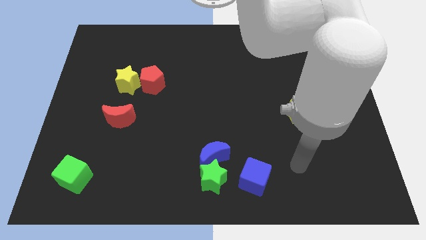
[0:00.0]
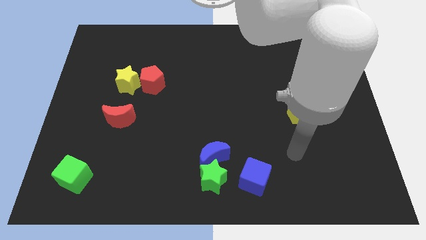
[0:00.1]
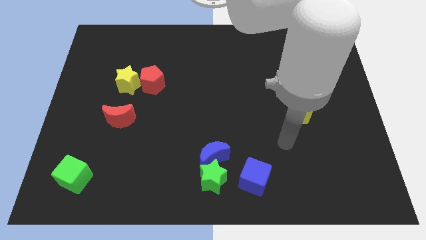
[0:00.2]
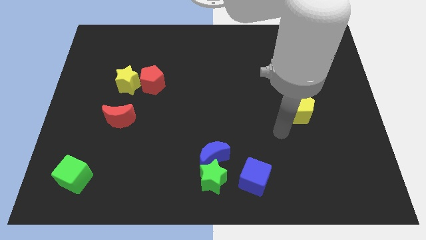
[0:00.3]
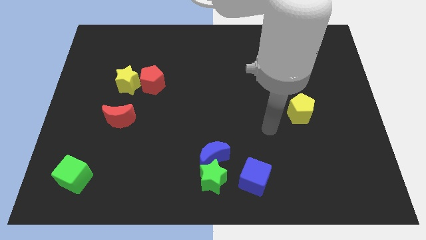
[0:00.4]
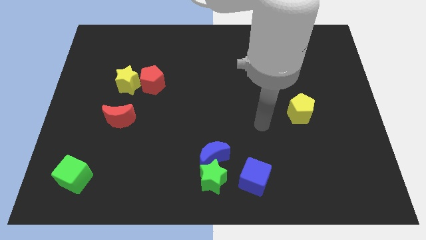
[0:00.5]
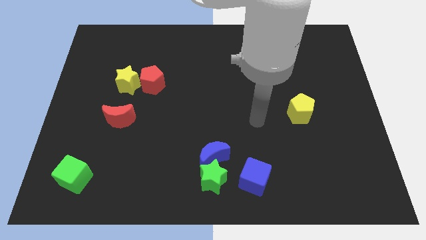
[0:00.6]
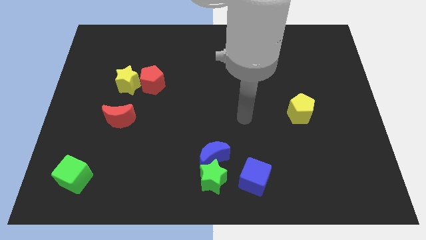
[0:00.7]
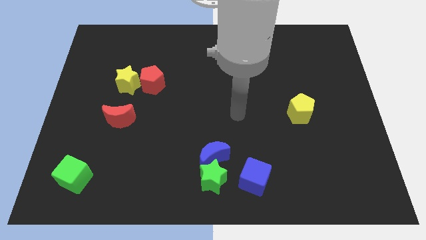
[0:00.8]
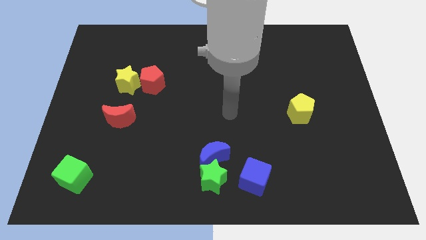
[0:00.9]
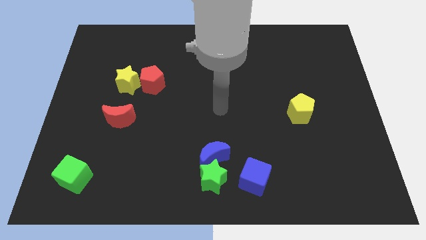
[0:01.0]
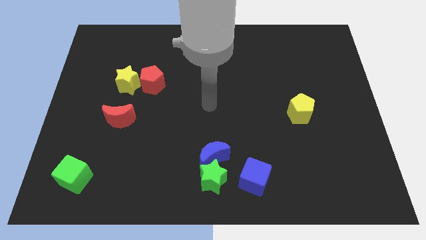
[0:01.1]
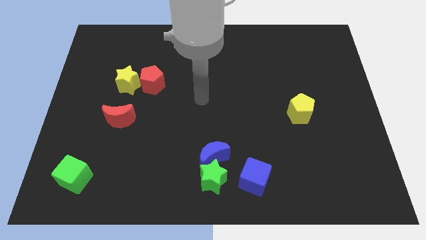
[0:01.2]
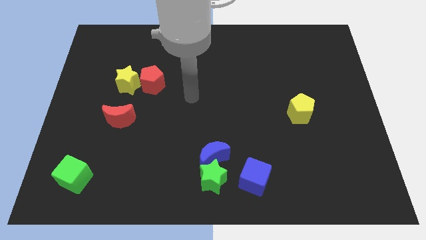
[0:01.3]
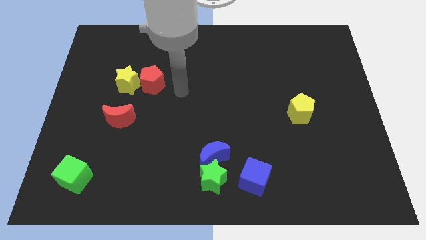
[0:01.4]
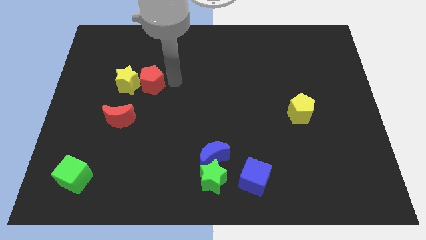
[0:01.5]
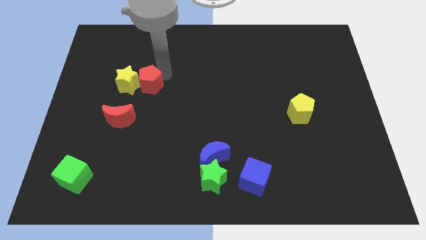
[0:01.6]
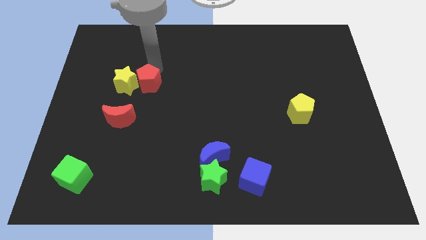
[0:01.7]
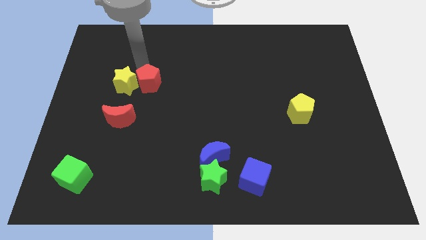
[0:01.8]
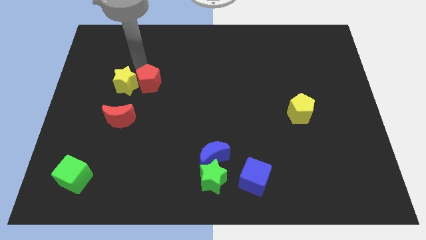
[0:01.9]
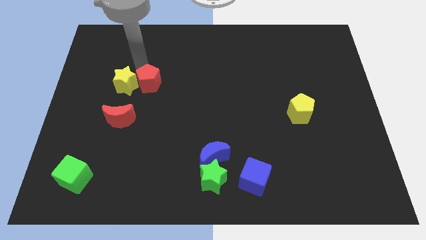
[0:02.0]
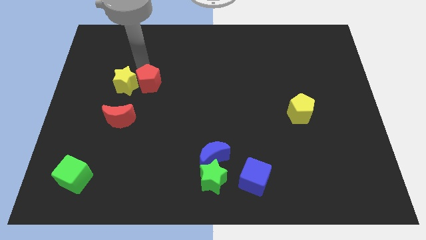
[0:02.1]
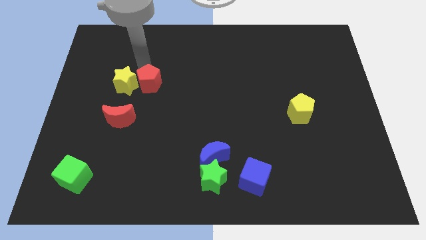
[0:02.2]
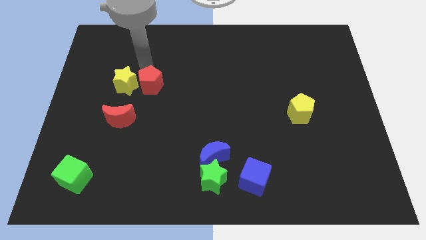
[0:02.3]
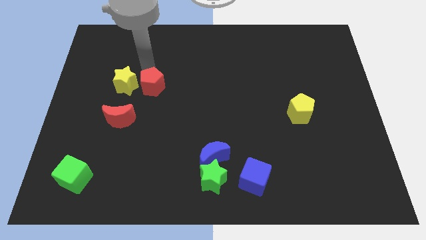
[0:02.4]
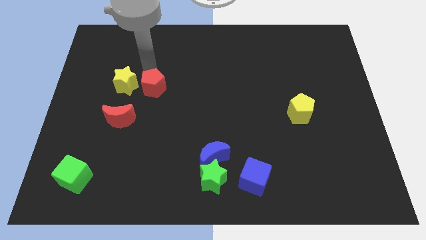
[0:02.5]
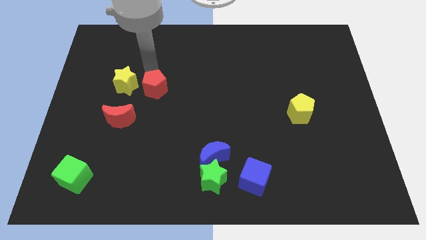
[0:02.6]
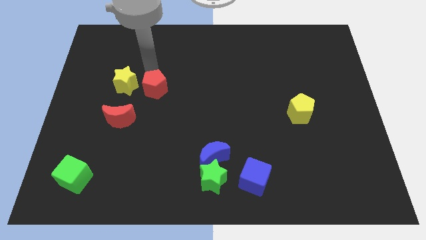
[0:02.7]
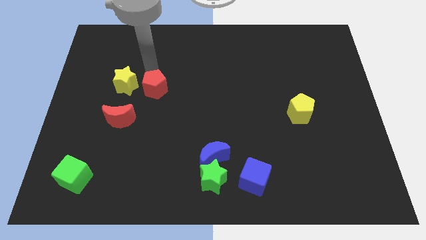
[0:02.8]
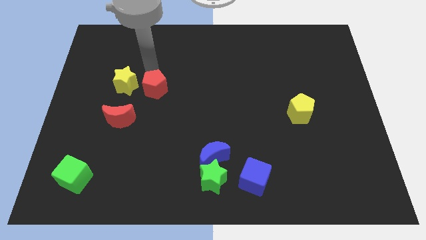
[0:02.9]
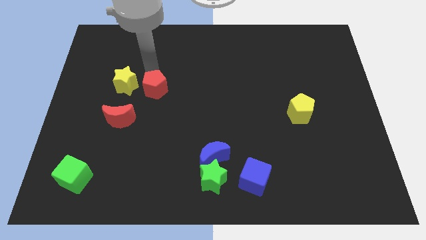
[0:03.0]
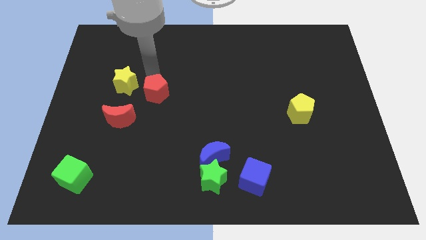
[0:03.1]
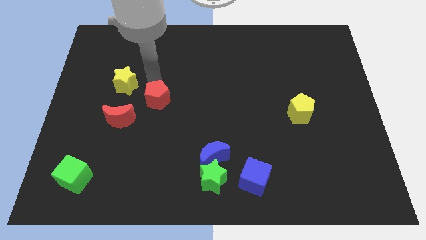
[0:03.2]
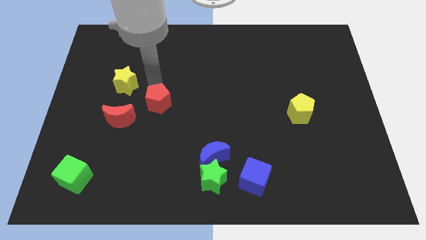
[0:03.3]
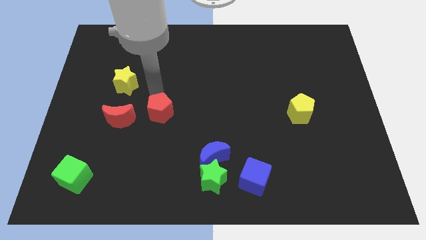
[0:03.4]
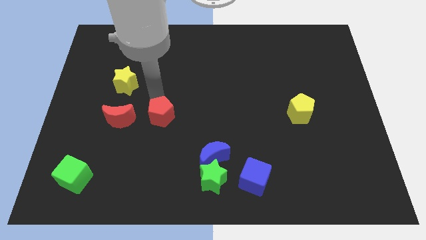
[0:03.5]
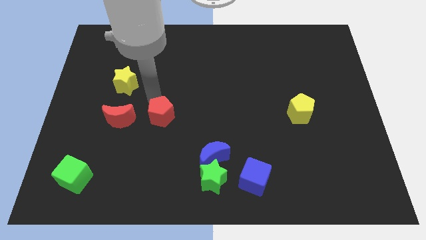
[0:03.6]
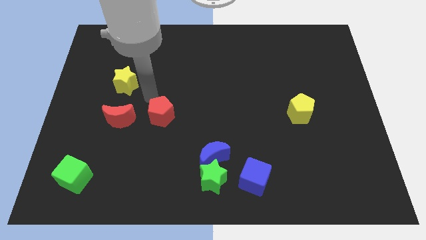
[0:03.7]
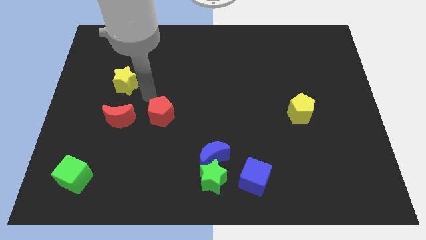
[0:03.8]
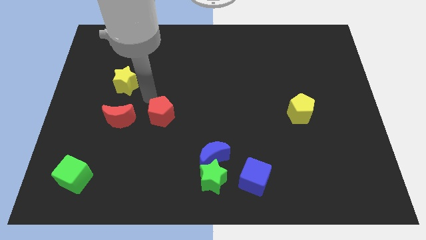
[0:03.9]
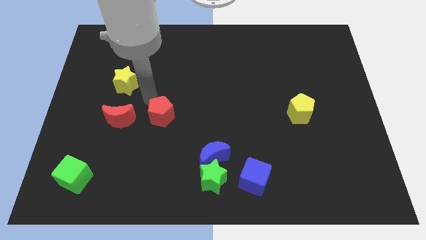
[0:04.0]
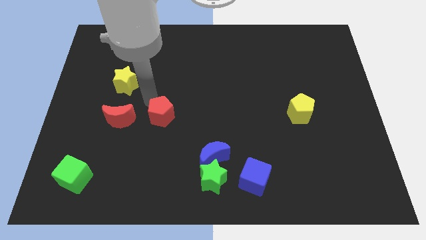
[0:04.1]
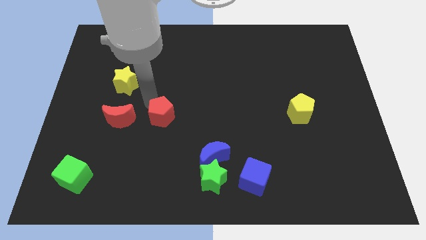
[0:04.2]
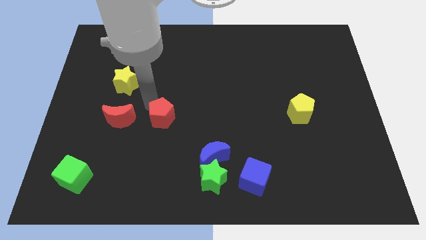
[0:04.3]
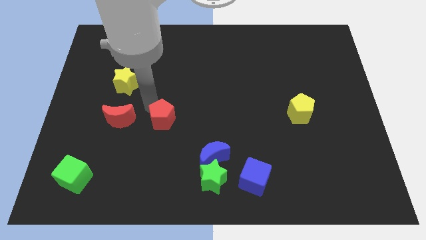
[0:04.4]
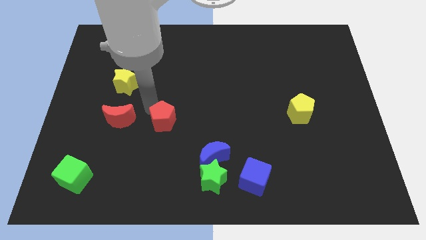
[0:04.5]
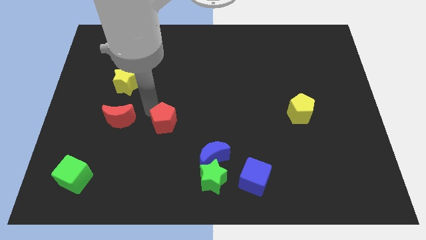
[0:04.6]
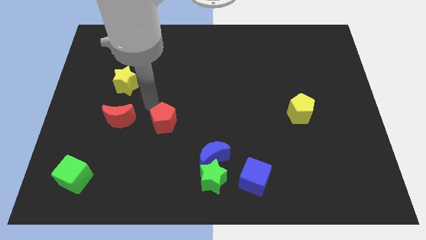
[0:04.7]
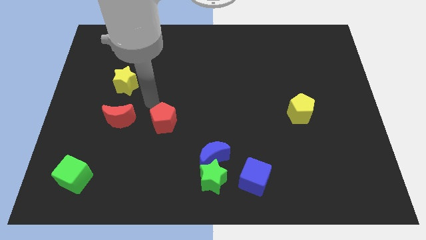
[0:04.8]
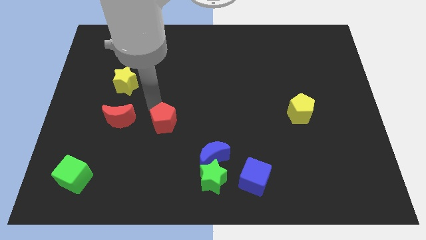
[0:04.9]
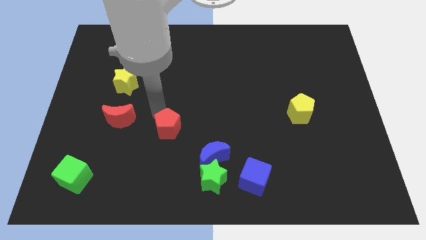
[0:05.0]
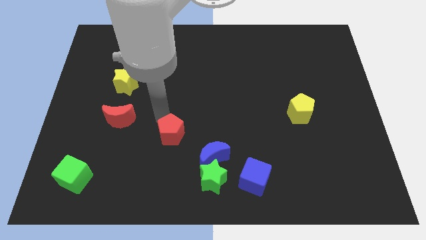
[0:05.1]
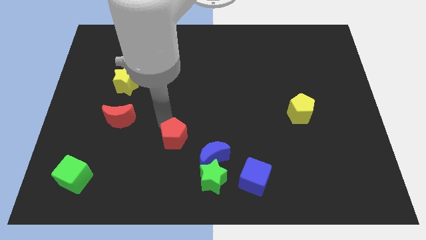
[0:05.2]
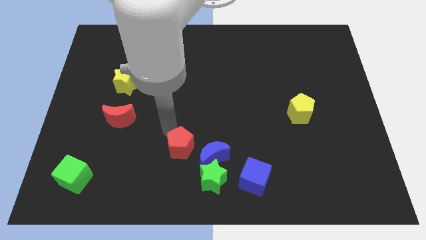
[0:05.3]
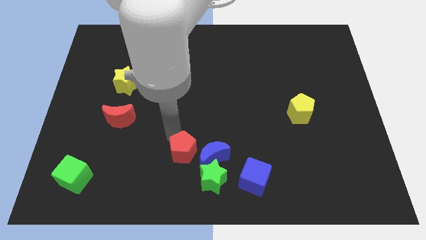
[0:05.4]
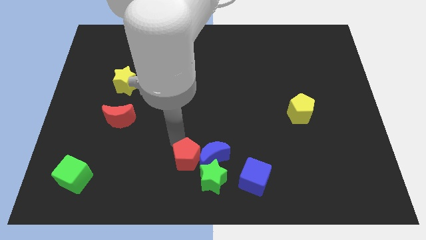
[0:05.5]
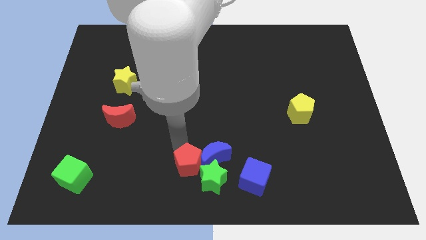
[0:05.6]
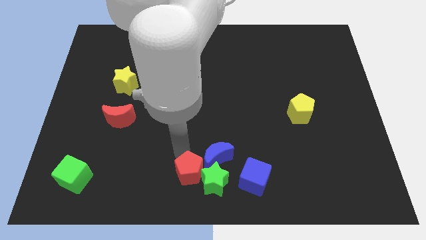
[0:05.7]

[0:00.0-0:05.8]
push the red pentagon close to the green star
